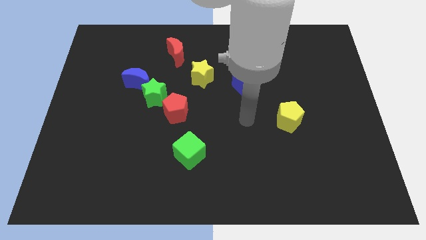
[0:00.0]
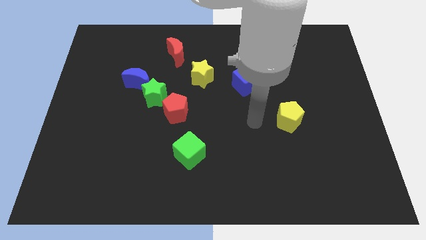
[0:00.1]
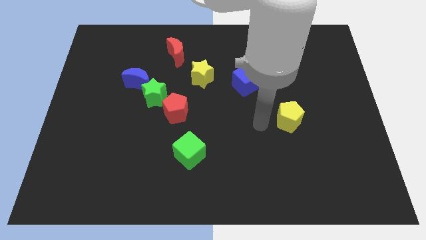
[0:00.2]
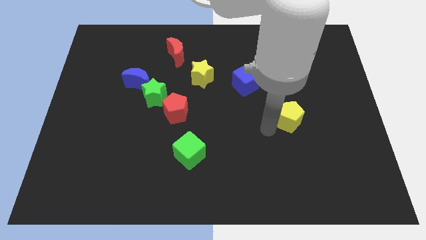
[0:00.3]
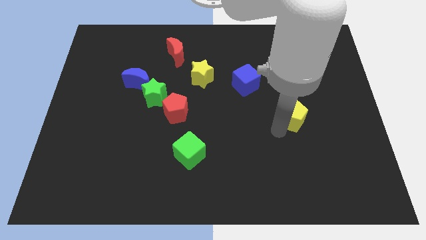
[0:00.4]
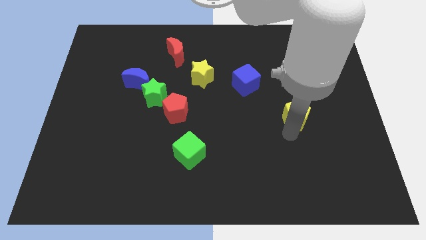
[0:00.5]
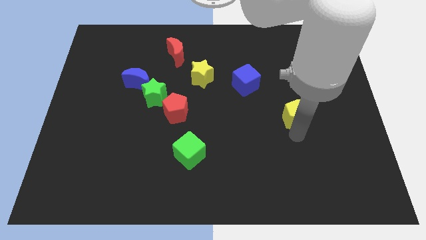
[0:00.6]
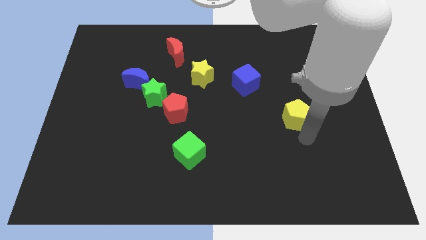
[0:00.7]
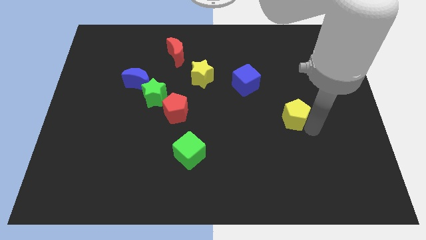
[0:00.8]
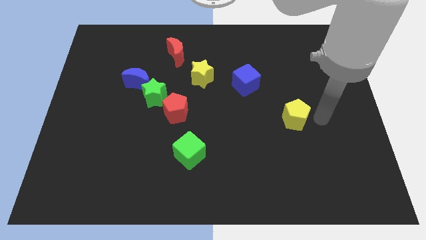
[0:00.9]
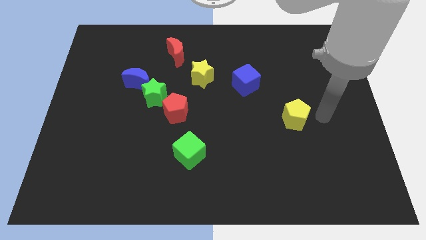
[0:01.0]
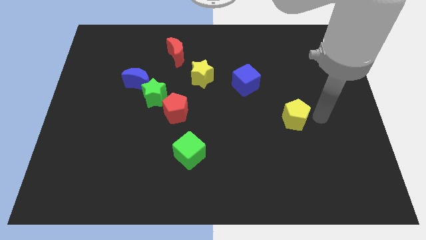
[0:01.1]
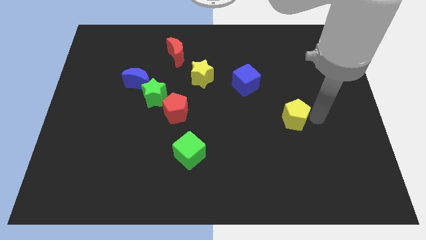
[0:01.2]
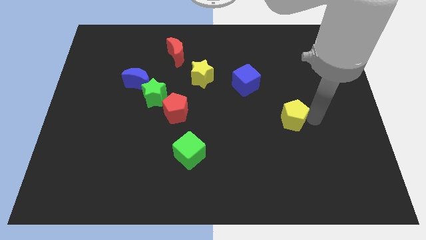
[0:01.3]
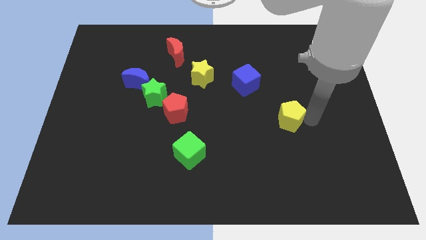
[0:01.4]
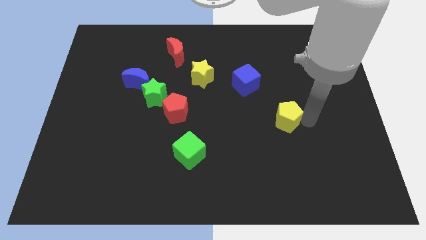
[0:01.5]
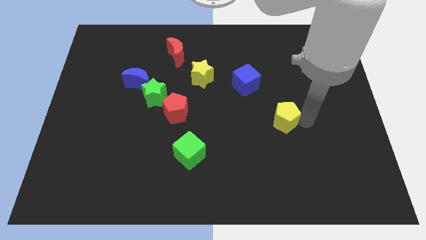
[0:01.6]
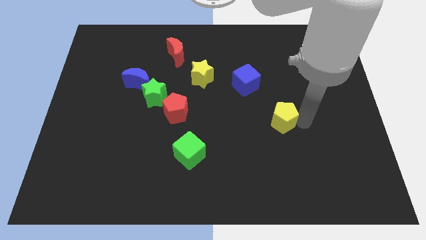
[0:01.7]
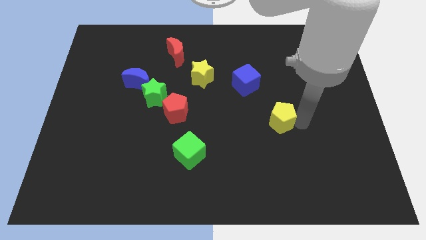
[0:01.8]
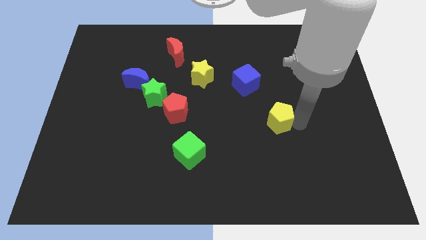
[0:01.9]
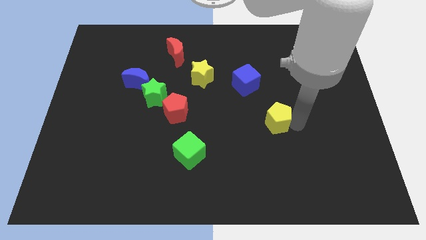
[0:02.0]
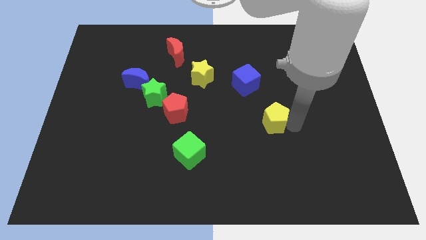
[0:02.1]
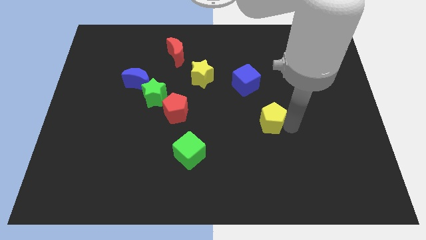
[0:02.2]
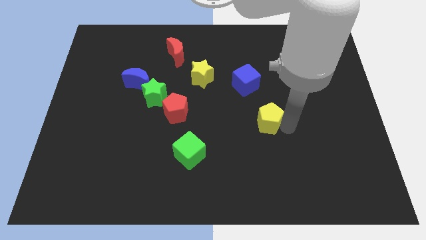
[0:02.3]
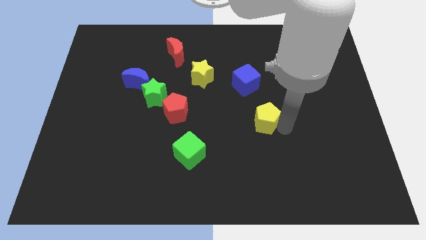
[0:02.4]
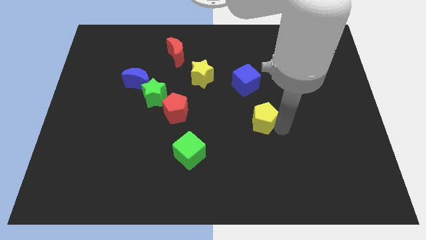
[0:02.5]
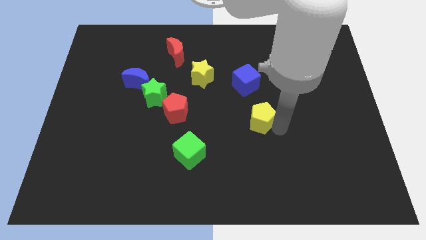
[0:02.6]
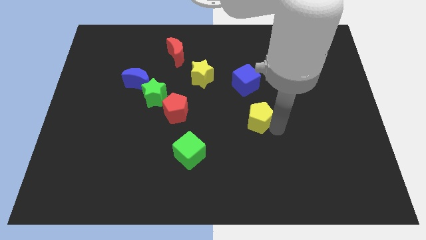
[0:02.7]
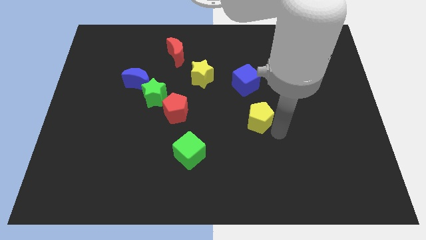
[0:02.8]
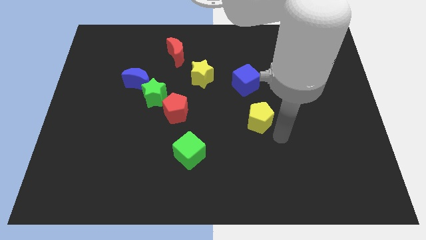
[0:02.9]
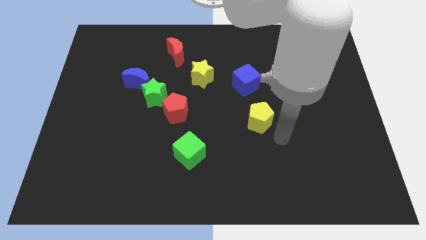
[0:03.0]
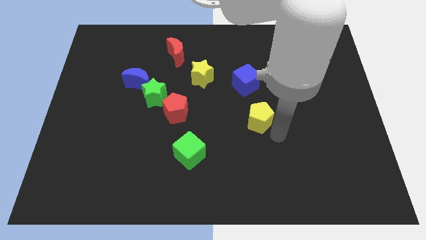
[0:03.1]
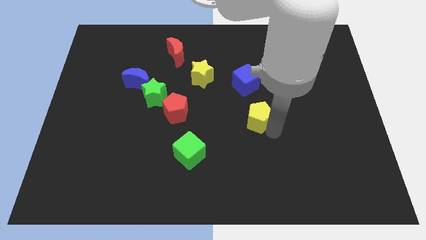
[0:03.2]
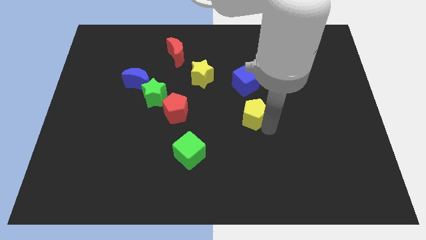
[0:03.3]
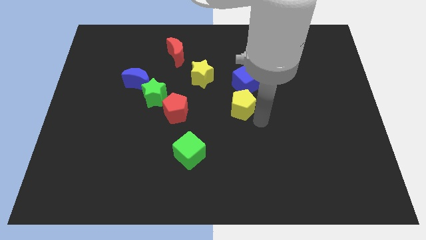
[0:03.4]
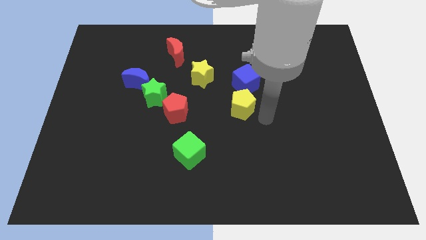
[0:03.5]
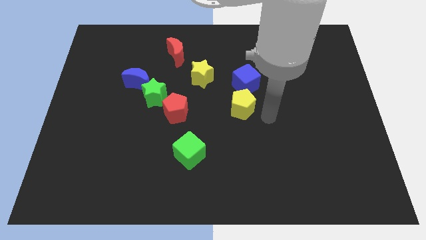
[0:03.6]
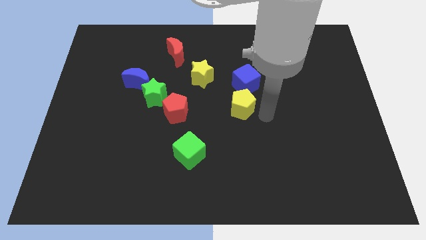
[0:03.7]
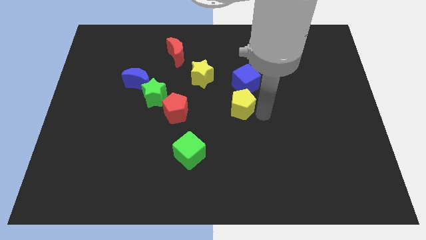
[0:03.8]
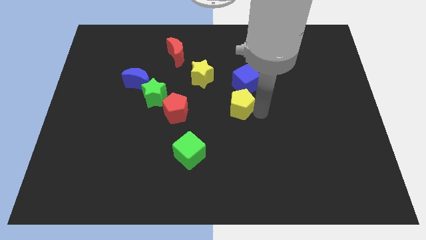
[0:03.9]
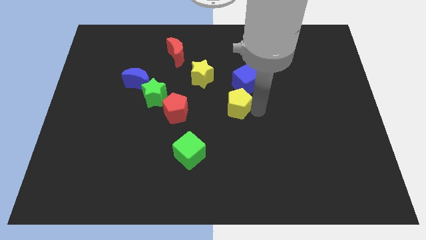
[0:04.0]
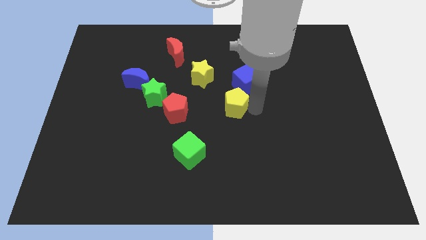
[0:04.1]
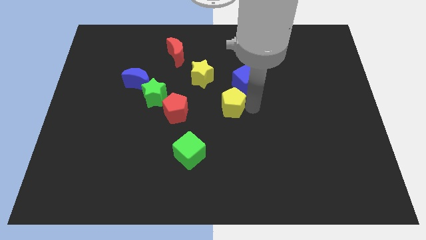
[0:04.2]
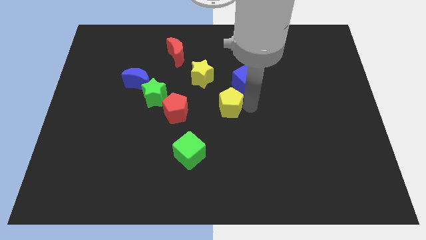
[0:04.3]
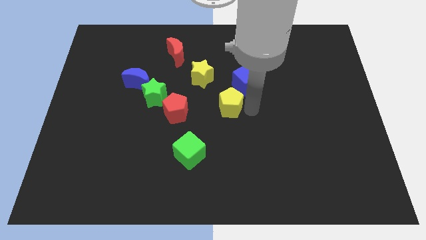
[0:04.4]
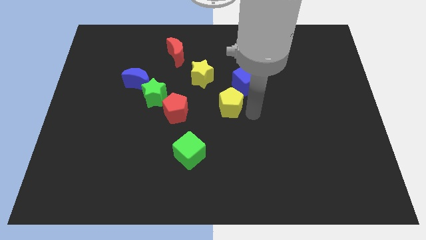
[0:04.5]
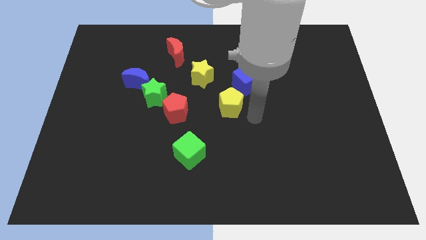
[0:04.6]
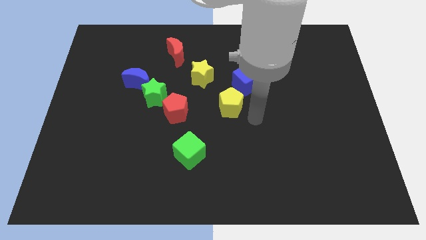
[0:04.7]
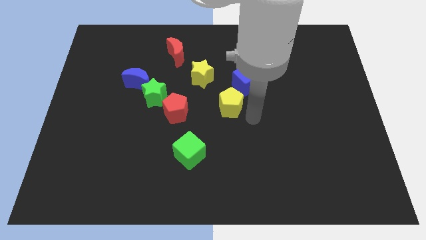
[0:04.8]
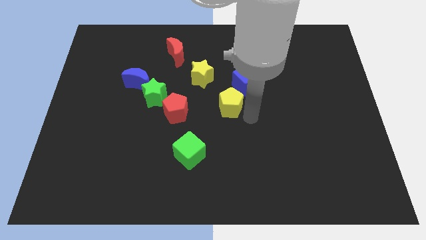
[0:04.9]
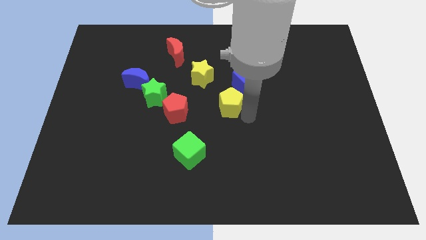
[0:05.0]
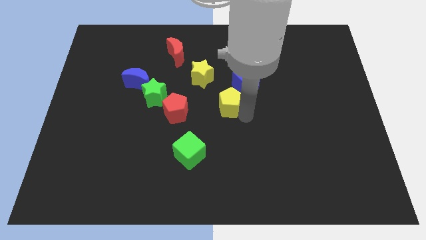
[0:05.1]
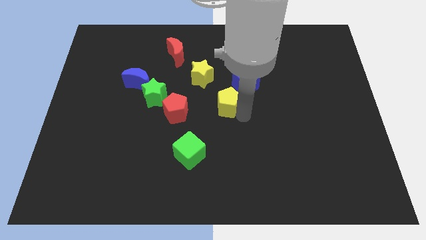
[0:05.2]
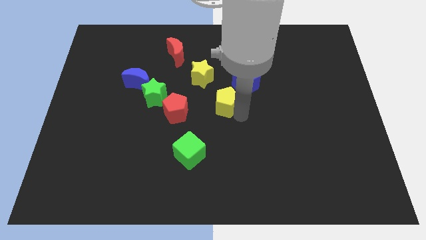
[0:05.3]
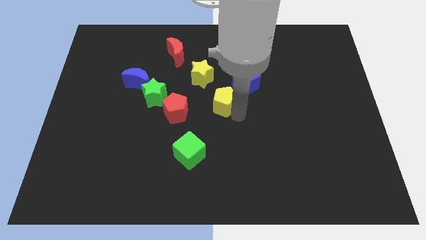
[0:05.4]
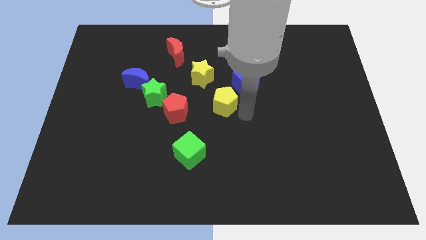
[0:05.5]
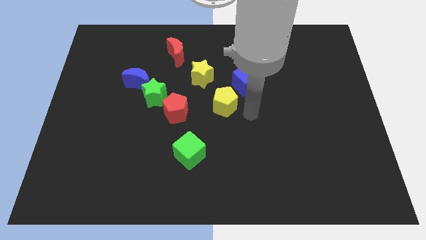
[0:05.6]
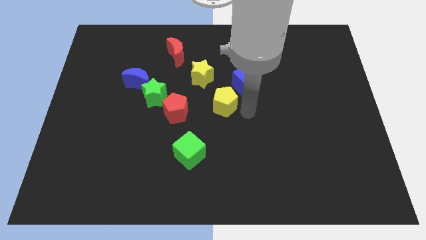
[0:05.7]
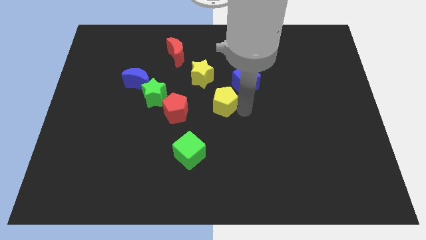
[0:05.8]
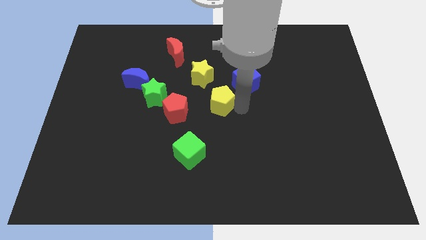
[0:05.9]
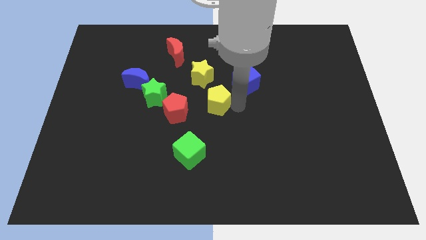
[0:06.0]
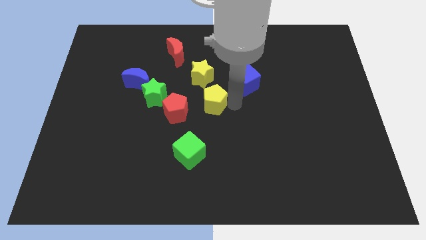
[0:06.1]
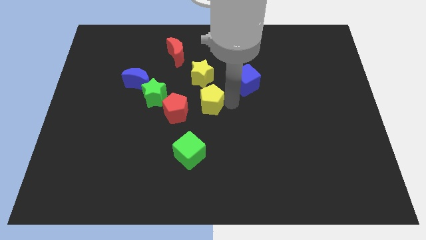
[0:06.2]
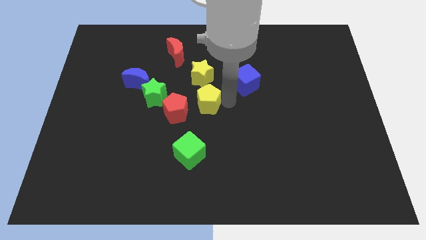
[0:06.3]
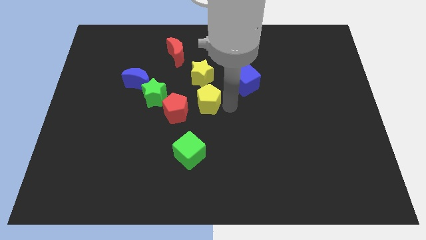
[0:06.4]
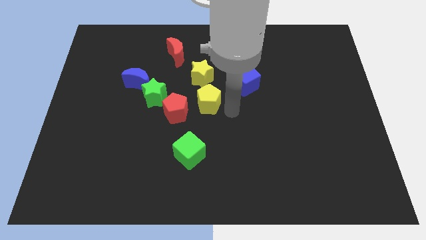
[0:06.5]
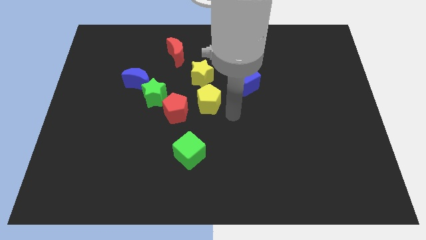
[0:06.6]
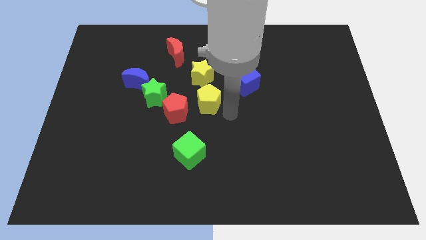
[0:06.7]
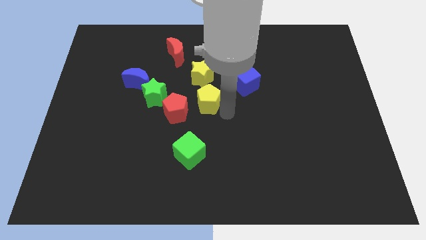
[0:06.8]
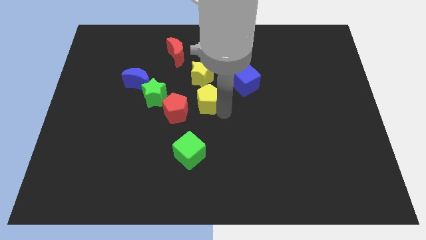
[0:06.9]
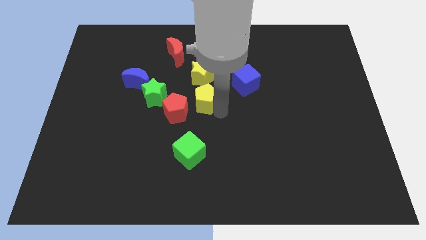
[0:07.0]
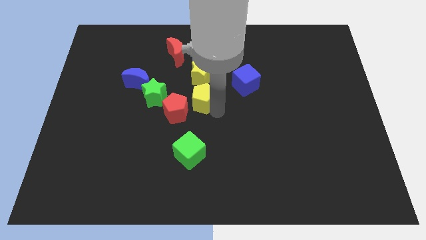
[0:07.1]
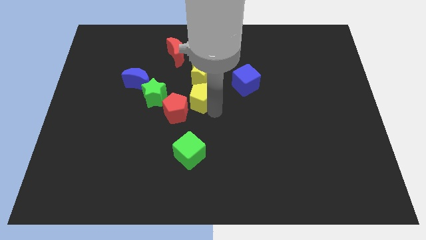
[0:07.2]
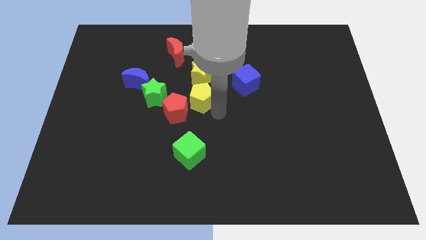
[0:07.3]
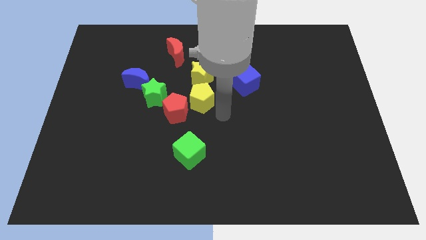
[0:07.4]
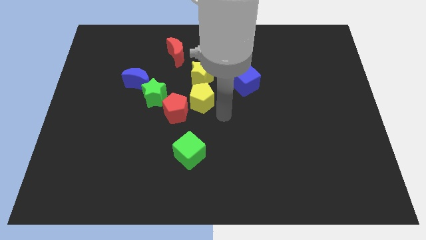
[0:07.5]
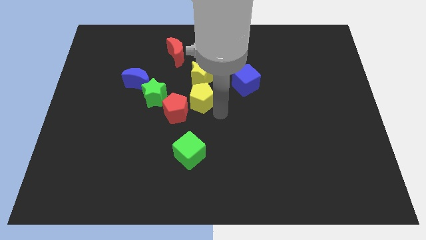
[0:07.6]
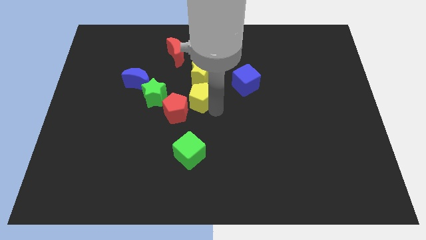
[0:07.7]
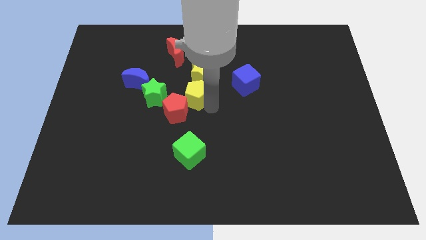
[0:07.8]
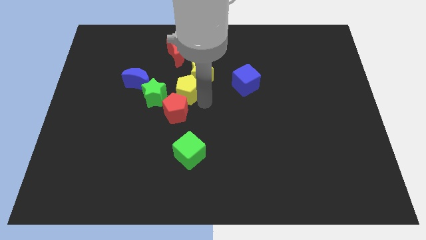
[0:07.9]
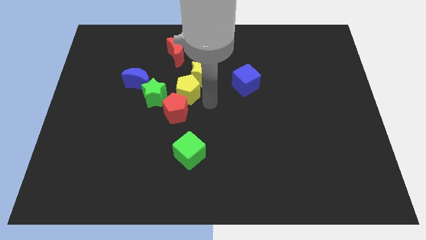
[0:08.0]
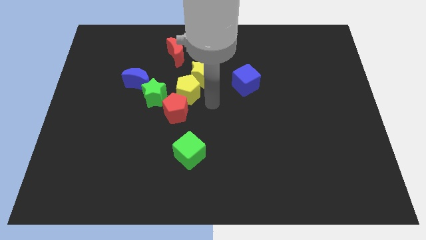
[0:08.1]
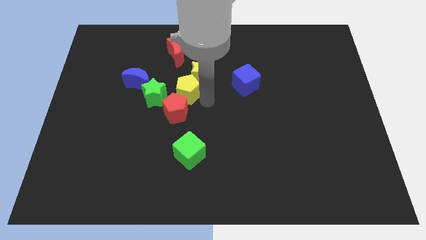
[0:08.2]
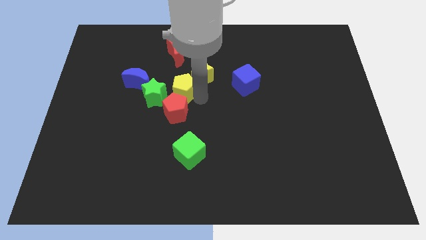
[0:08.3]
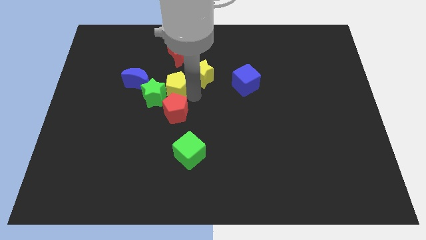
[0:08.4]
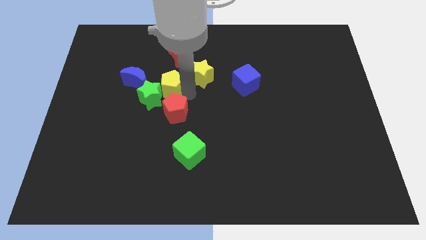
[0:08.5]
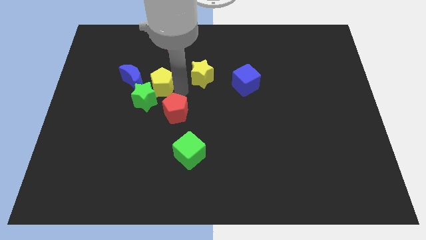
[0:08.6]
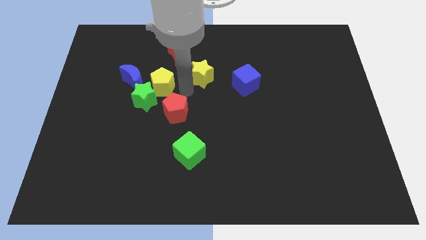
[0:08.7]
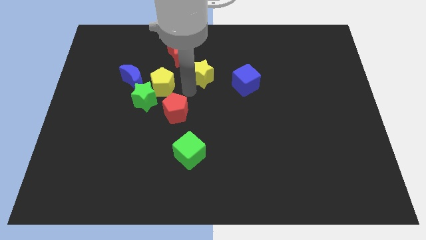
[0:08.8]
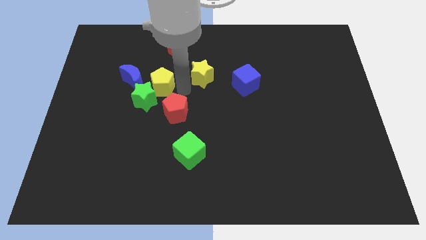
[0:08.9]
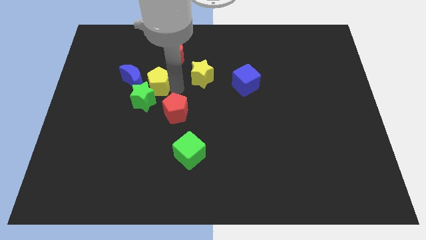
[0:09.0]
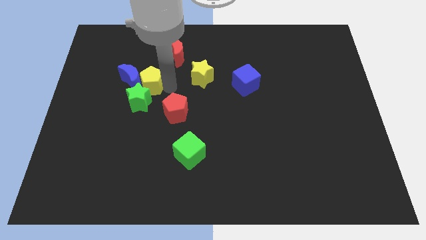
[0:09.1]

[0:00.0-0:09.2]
move the yellow pentagon close to the blue moon
